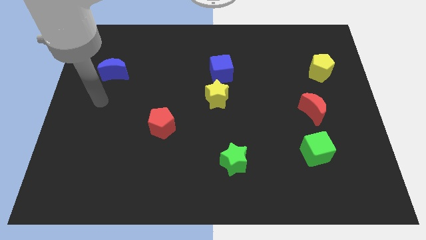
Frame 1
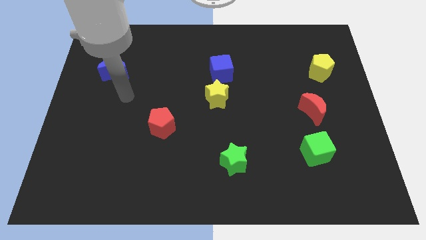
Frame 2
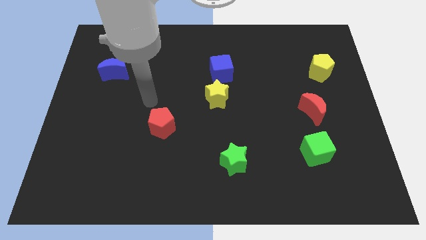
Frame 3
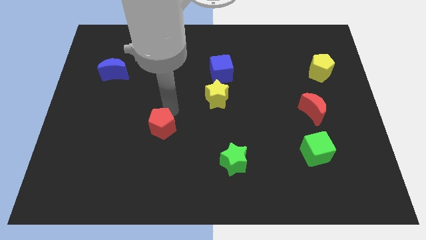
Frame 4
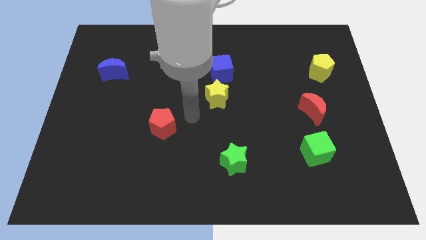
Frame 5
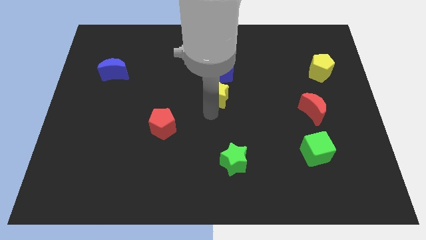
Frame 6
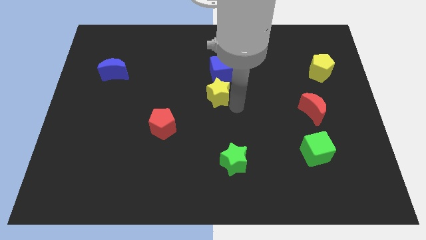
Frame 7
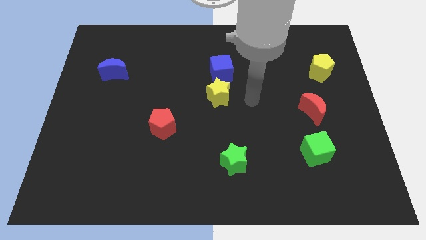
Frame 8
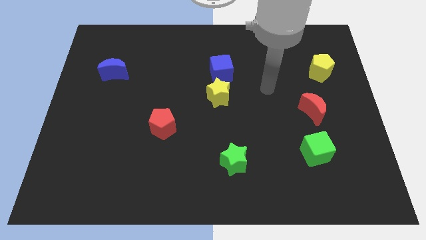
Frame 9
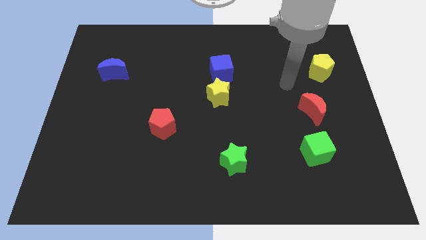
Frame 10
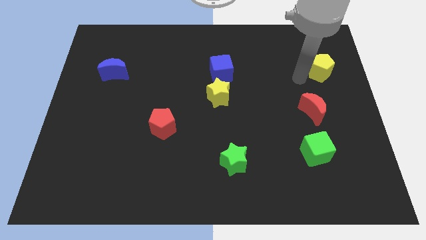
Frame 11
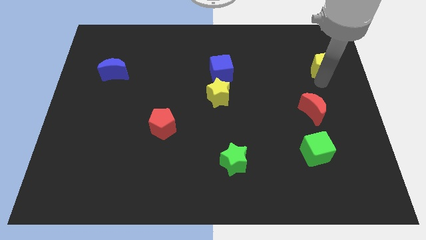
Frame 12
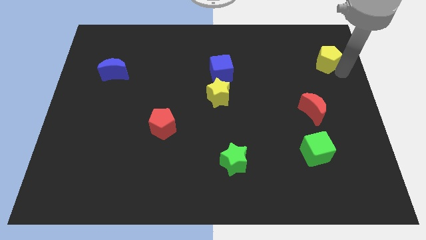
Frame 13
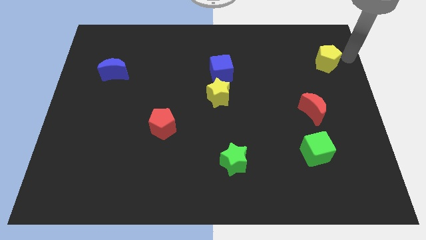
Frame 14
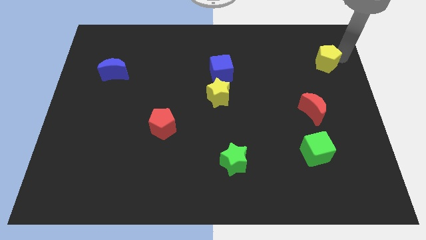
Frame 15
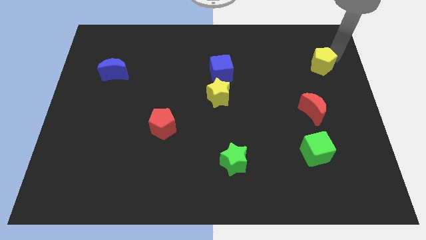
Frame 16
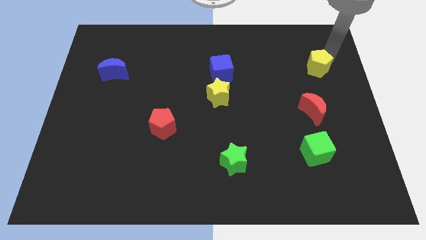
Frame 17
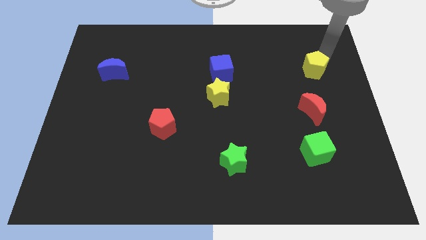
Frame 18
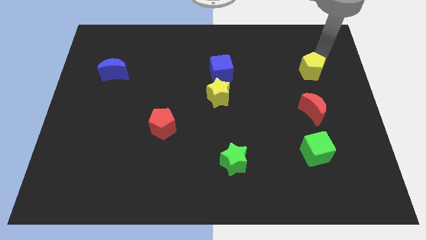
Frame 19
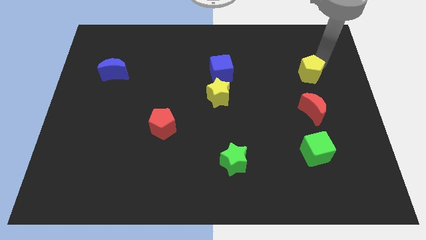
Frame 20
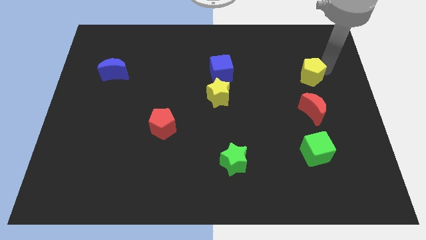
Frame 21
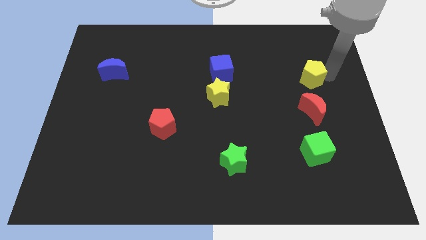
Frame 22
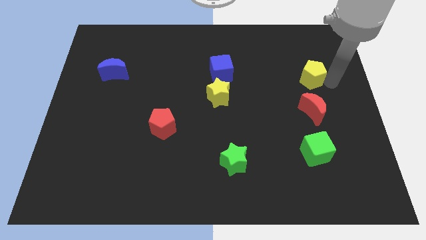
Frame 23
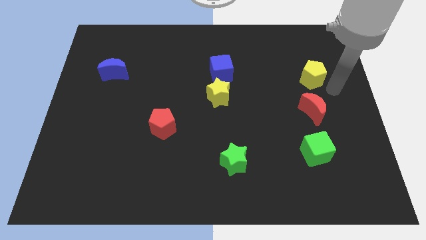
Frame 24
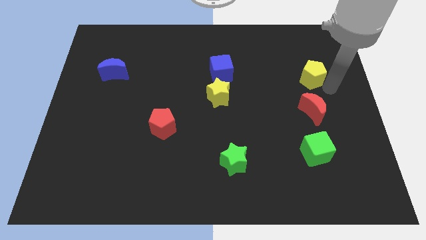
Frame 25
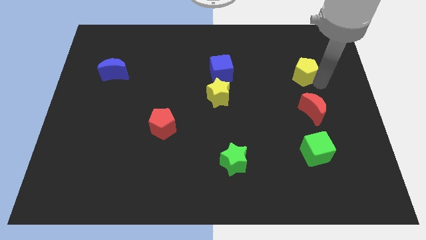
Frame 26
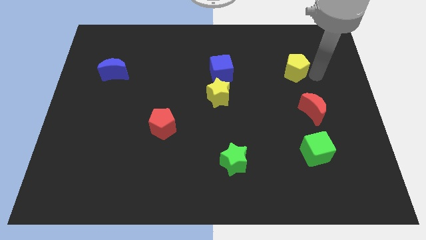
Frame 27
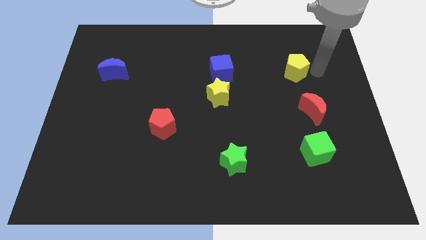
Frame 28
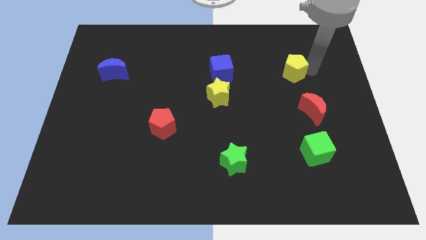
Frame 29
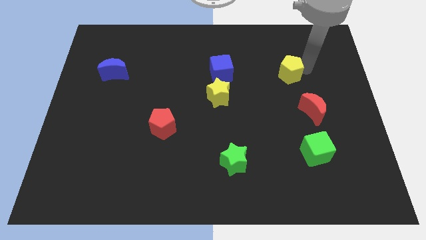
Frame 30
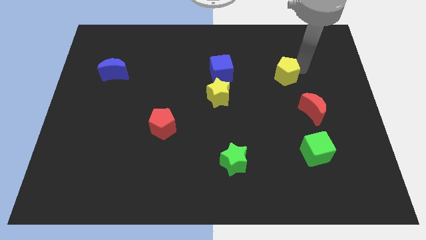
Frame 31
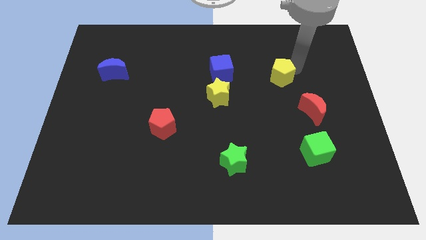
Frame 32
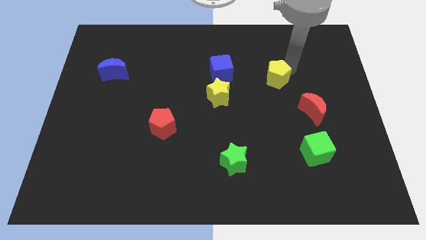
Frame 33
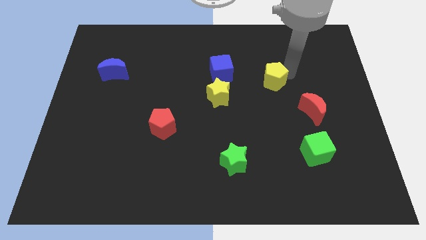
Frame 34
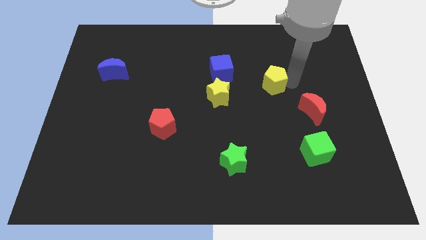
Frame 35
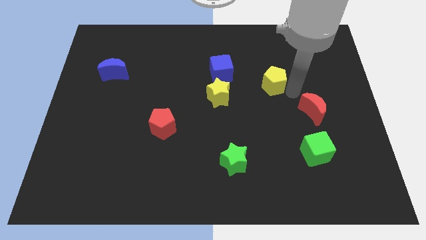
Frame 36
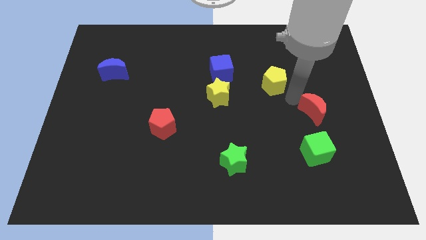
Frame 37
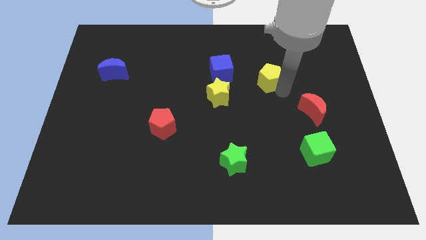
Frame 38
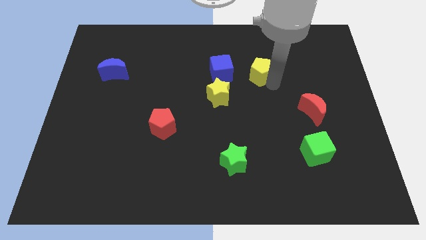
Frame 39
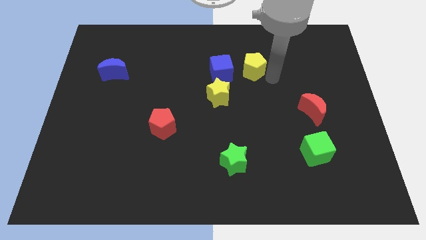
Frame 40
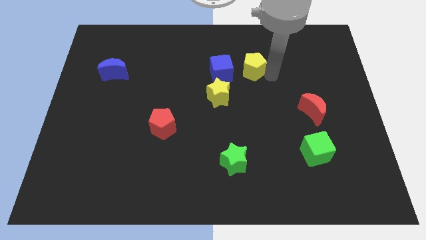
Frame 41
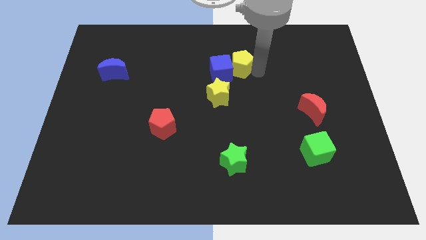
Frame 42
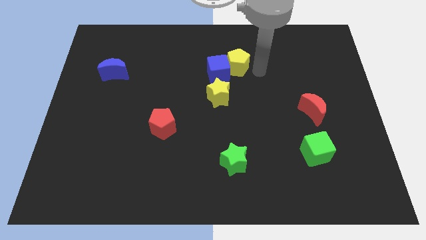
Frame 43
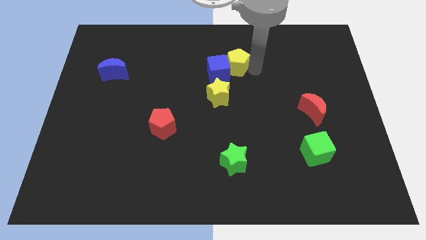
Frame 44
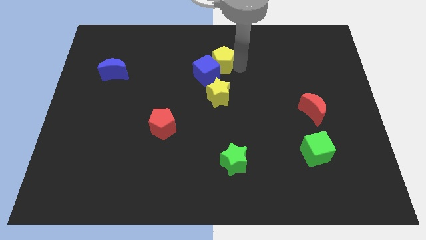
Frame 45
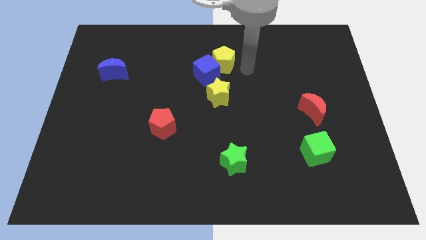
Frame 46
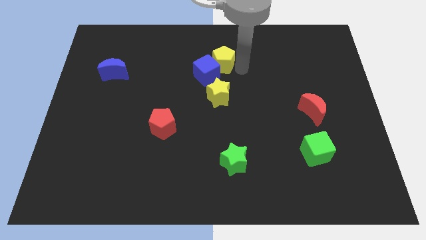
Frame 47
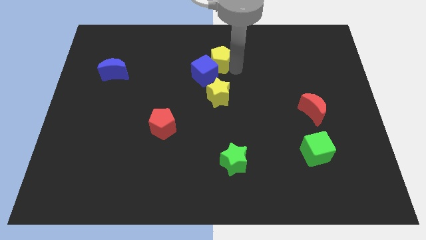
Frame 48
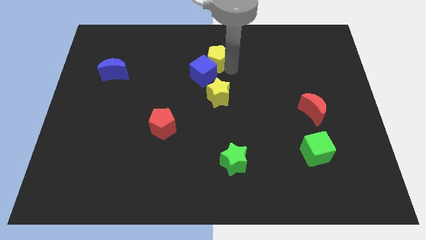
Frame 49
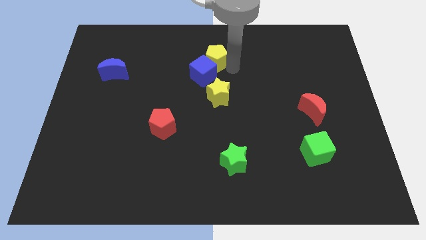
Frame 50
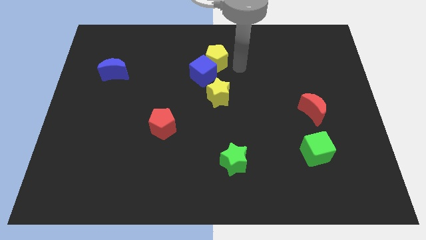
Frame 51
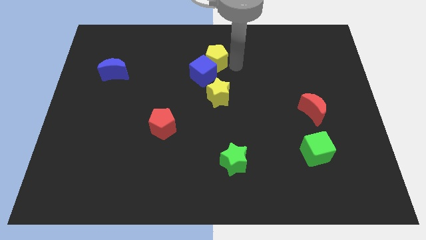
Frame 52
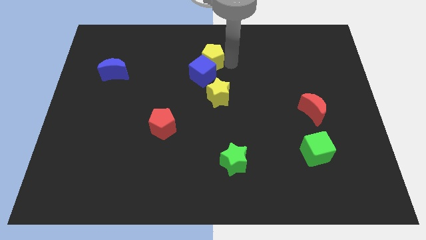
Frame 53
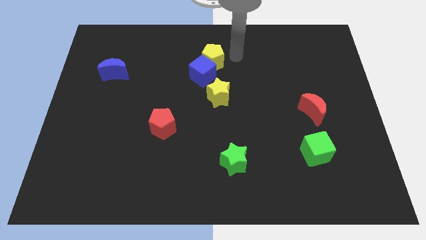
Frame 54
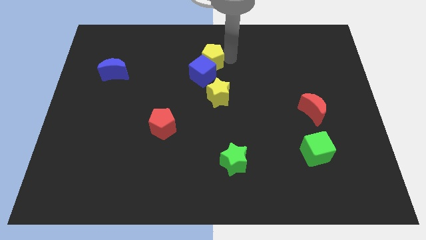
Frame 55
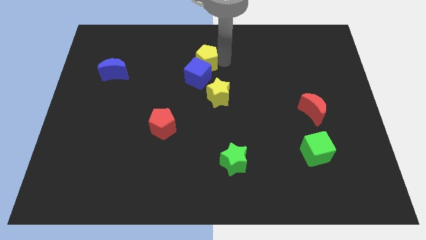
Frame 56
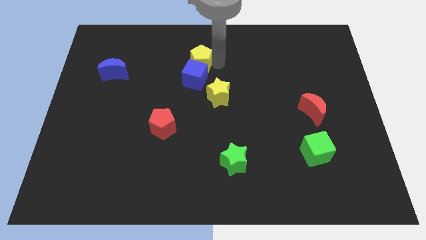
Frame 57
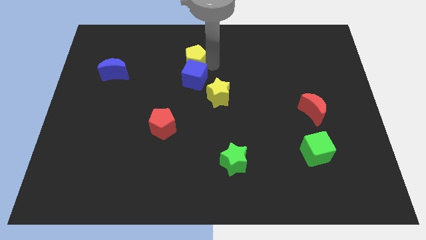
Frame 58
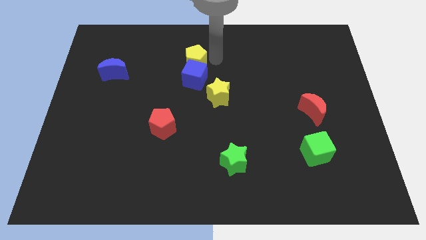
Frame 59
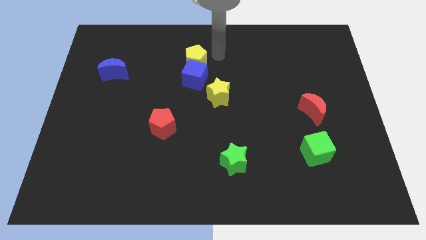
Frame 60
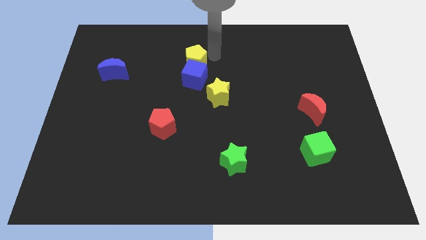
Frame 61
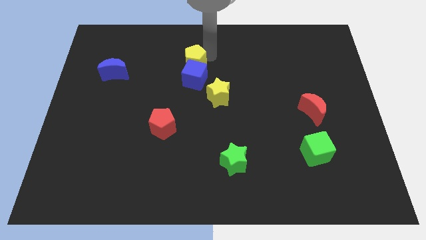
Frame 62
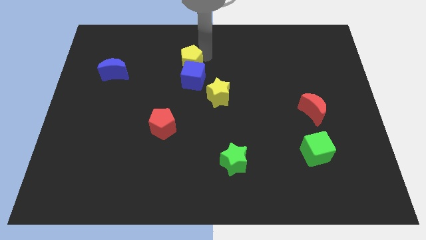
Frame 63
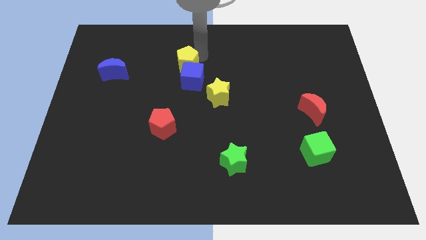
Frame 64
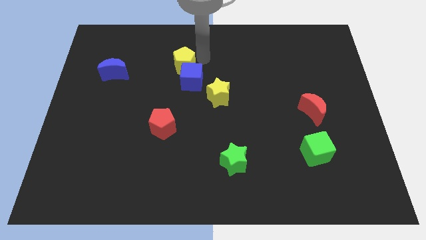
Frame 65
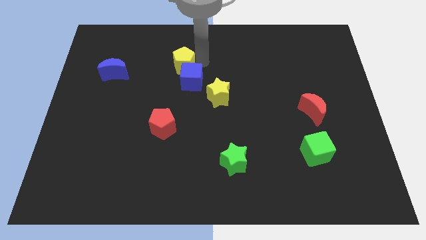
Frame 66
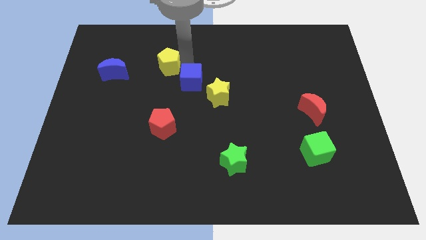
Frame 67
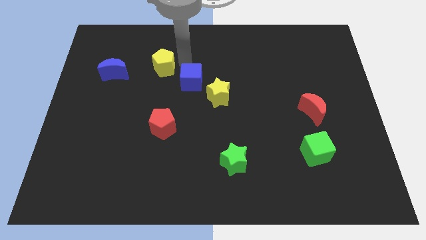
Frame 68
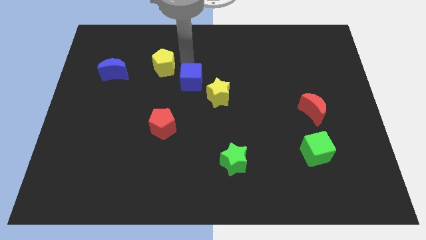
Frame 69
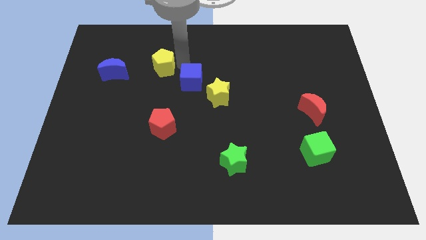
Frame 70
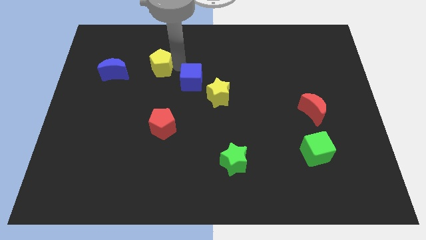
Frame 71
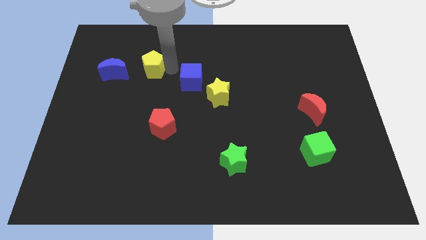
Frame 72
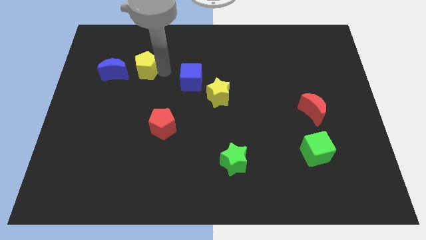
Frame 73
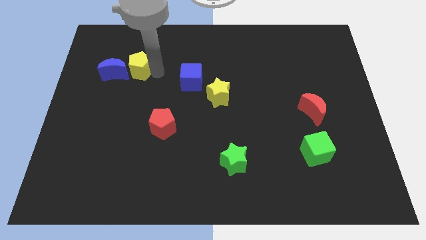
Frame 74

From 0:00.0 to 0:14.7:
put the yellow pentagon towards the blue moon

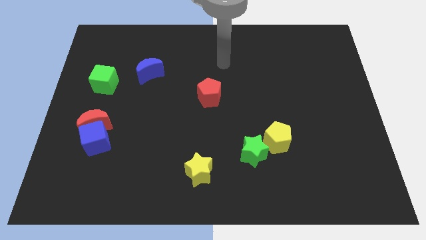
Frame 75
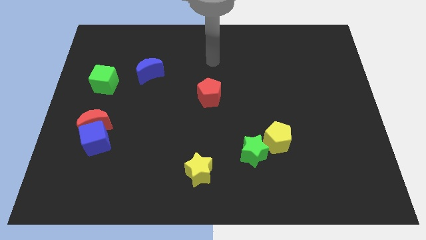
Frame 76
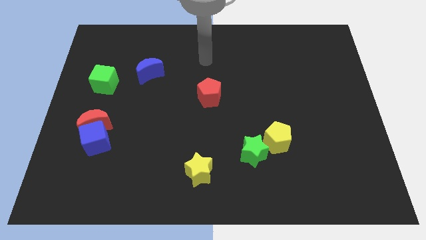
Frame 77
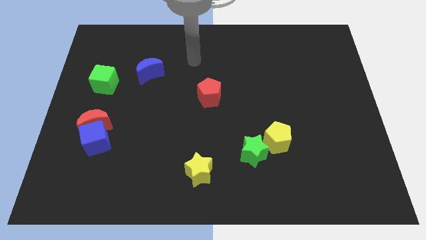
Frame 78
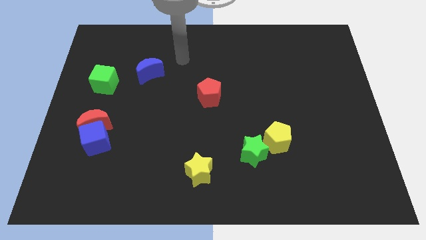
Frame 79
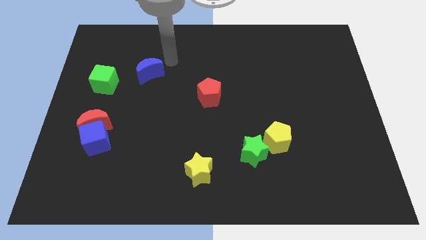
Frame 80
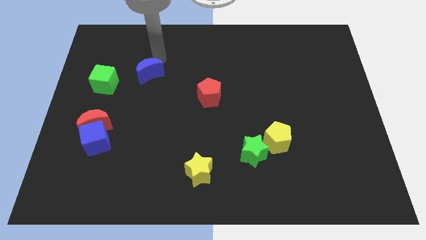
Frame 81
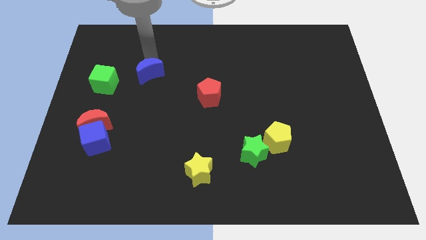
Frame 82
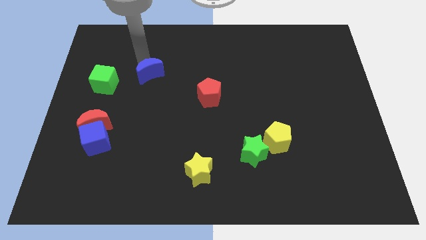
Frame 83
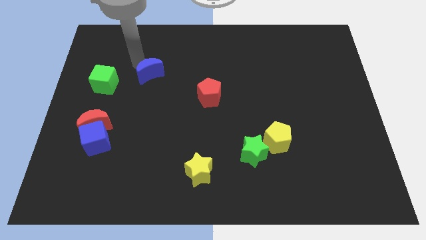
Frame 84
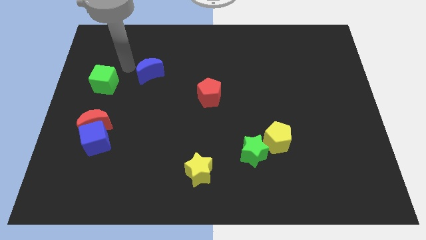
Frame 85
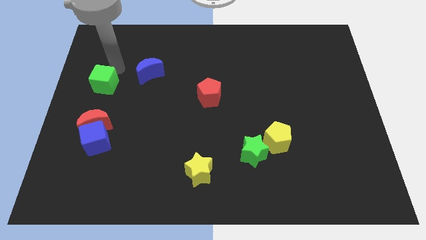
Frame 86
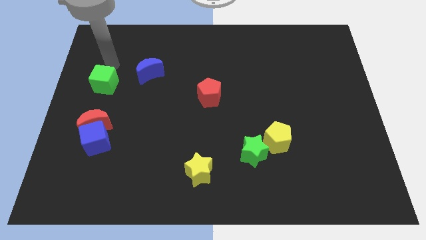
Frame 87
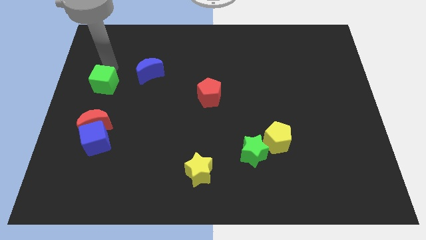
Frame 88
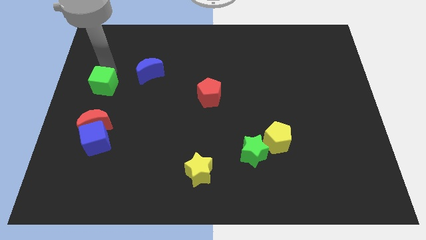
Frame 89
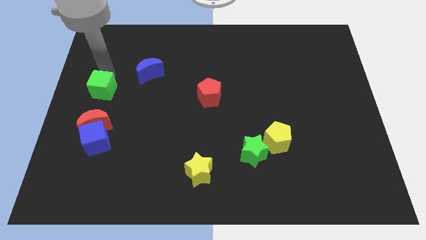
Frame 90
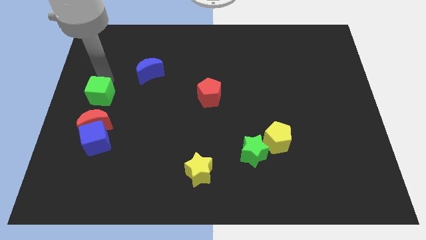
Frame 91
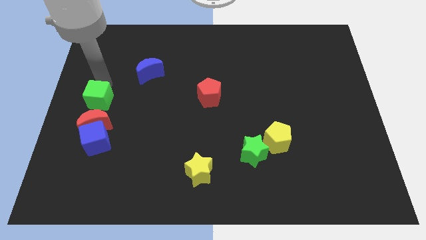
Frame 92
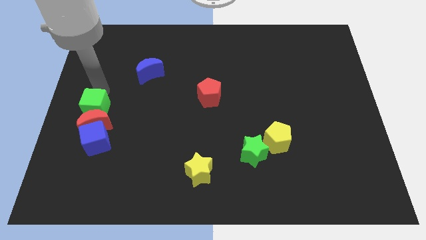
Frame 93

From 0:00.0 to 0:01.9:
slide the green cube to the red moon
